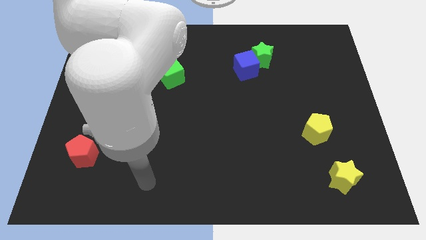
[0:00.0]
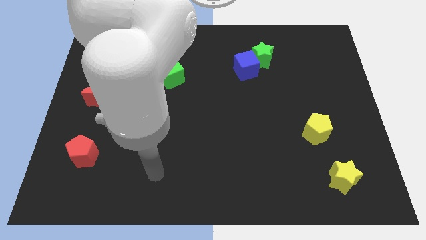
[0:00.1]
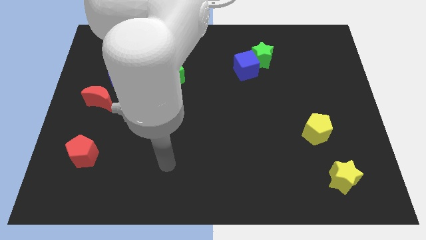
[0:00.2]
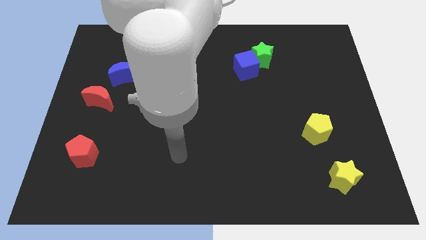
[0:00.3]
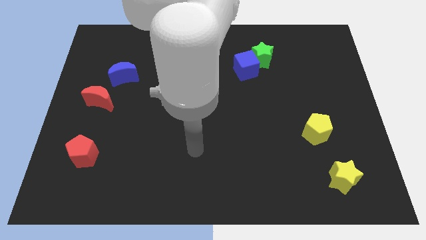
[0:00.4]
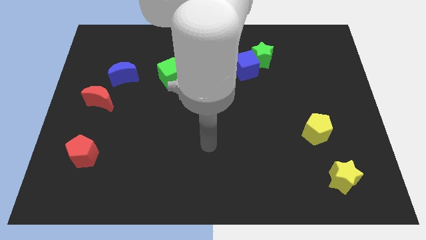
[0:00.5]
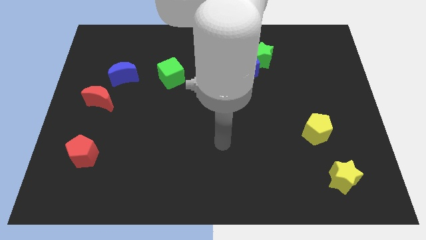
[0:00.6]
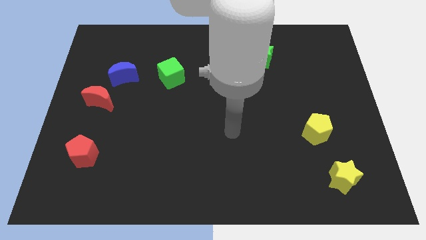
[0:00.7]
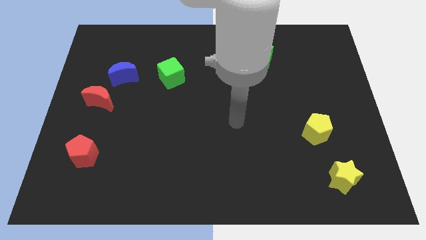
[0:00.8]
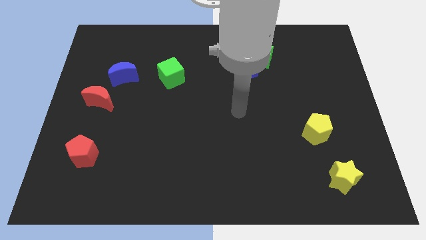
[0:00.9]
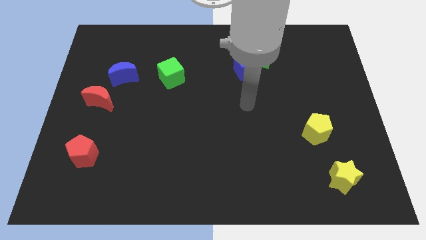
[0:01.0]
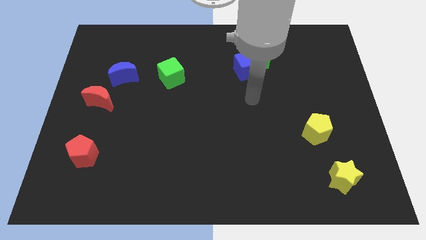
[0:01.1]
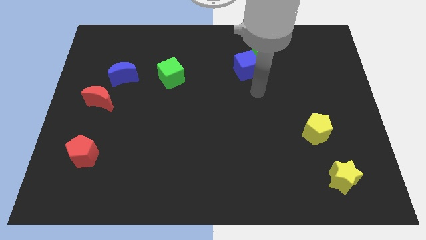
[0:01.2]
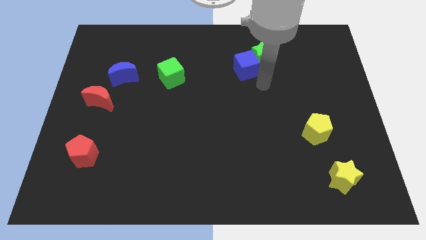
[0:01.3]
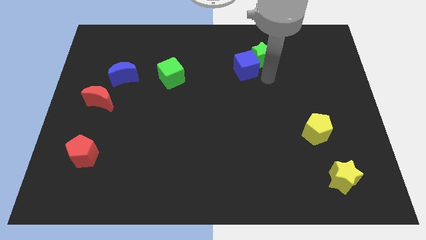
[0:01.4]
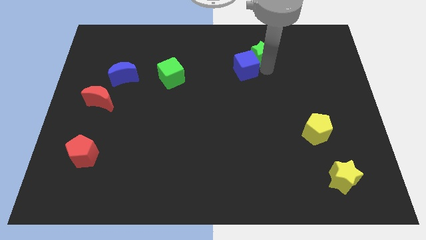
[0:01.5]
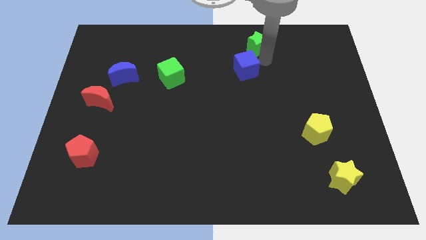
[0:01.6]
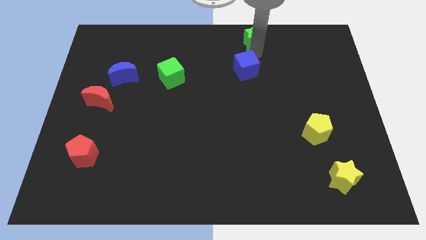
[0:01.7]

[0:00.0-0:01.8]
separate the blue cube from the green star

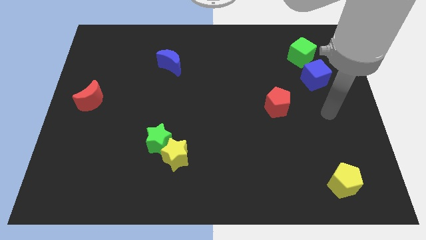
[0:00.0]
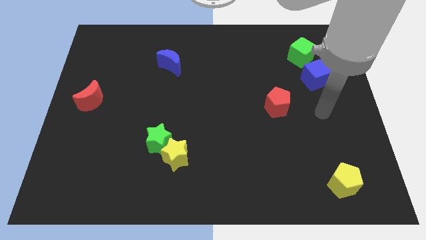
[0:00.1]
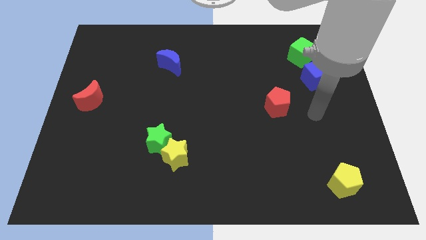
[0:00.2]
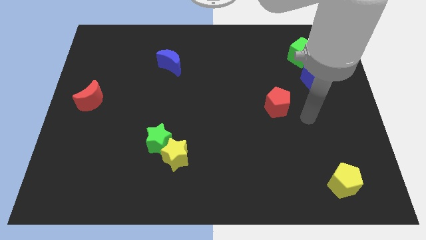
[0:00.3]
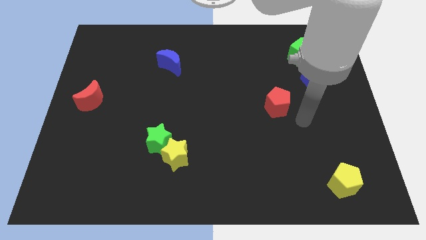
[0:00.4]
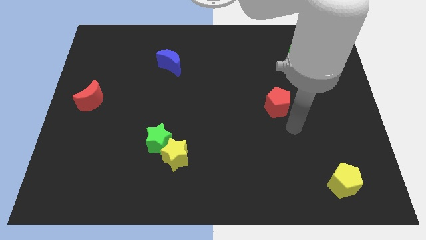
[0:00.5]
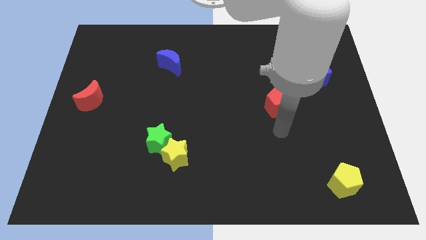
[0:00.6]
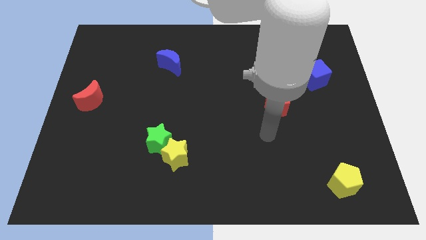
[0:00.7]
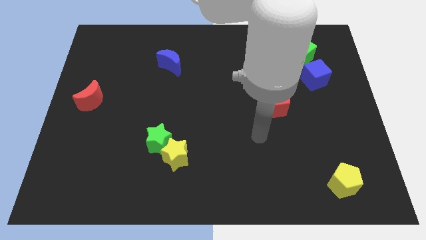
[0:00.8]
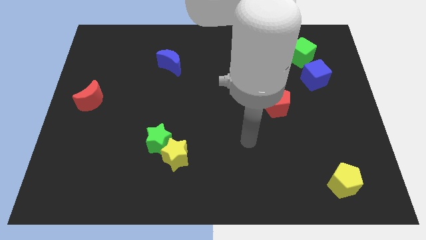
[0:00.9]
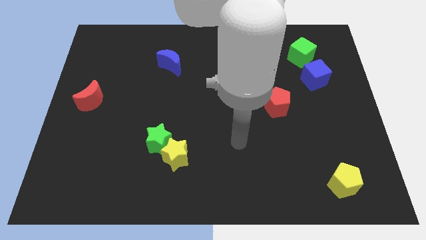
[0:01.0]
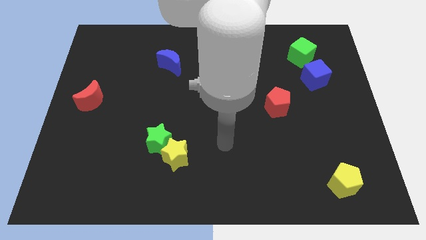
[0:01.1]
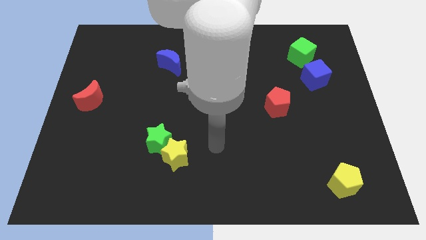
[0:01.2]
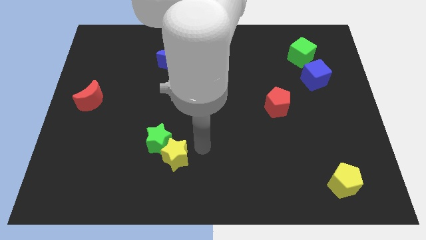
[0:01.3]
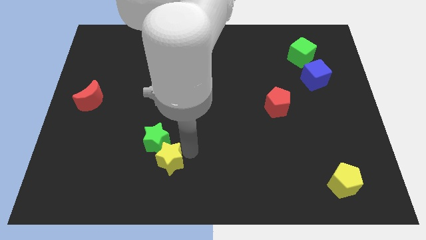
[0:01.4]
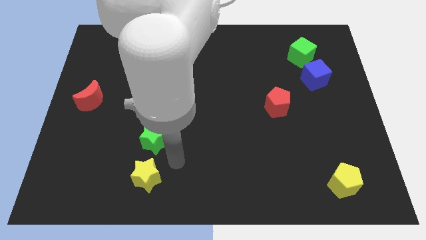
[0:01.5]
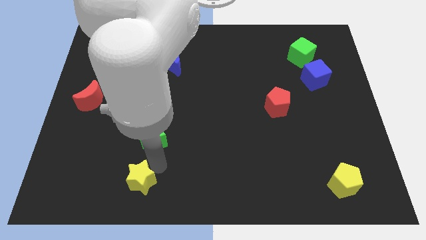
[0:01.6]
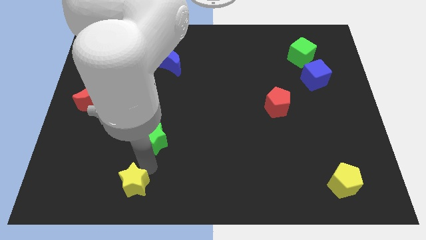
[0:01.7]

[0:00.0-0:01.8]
separate the green star from the yellow star

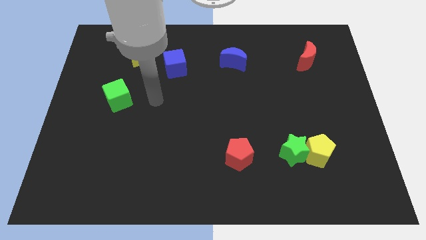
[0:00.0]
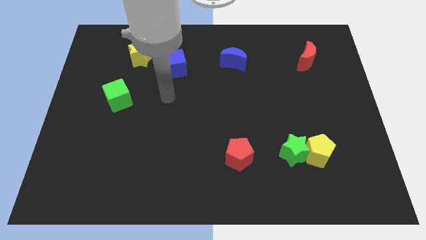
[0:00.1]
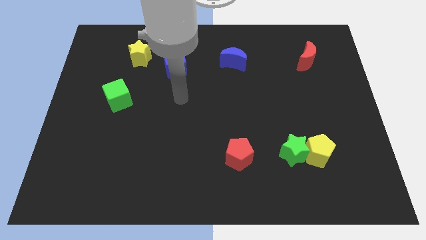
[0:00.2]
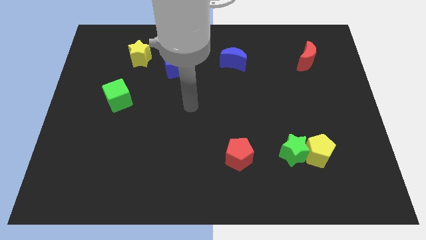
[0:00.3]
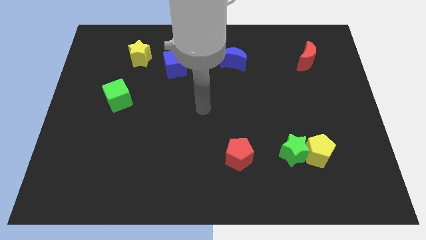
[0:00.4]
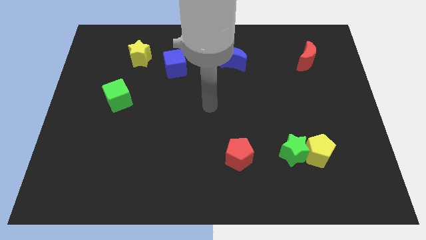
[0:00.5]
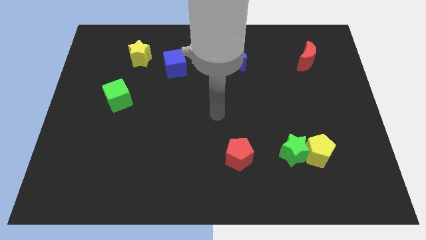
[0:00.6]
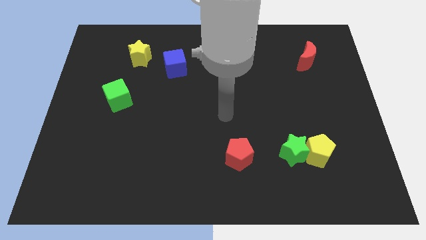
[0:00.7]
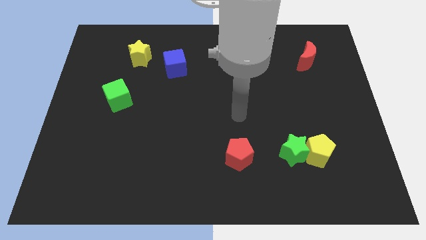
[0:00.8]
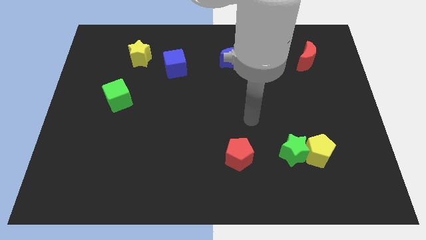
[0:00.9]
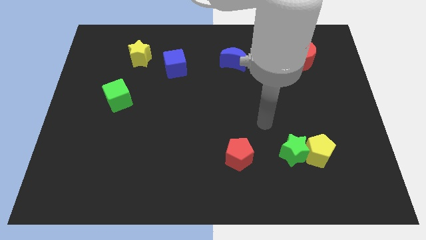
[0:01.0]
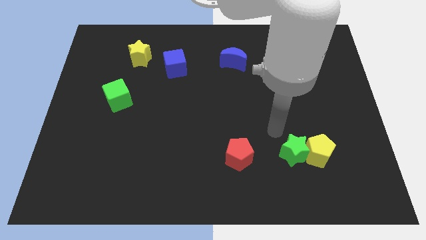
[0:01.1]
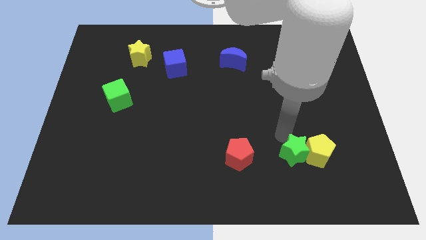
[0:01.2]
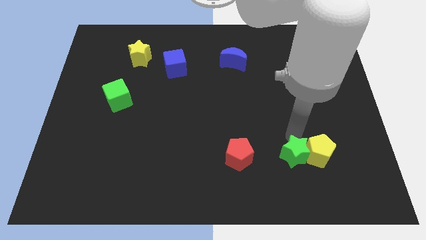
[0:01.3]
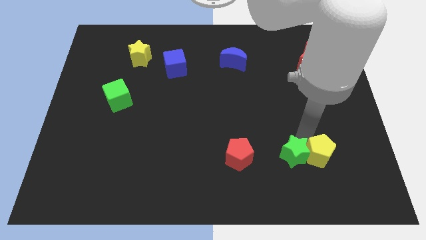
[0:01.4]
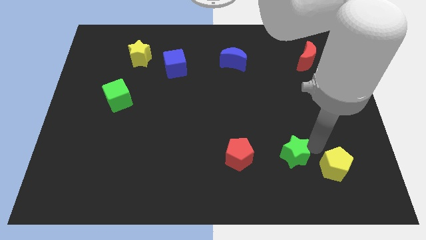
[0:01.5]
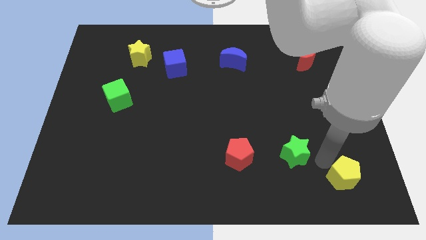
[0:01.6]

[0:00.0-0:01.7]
move the green star away from the yellow pentagon

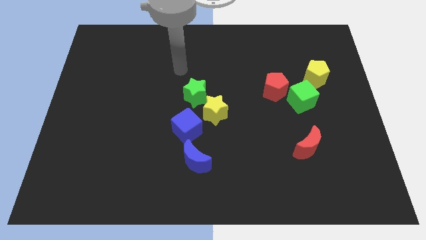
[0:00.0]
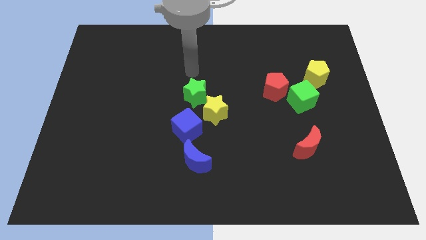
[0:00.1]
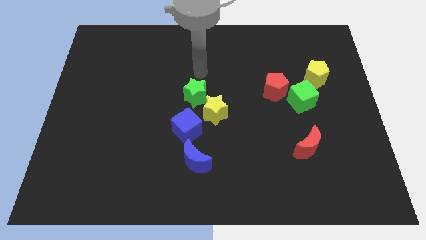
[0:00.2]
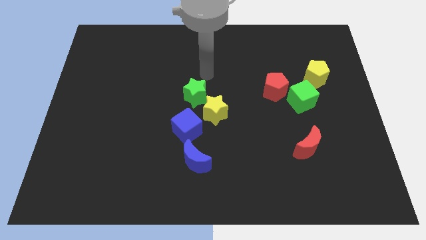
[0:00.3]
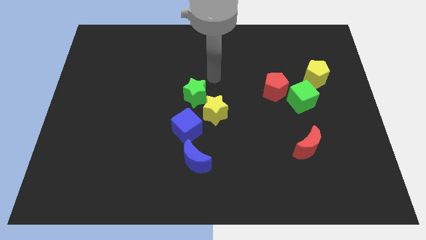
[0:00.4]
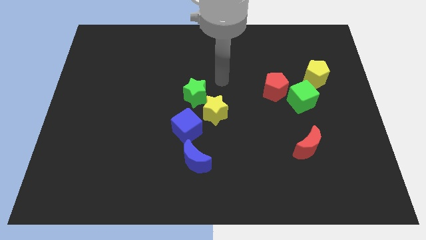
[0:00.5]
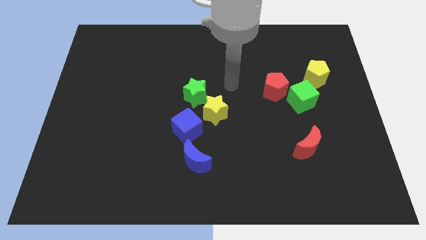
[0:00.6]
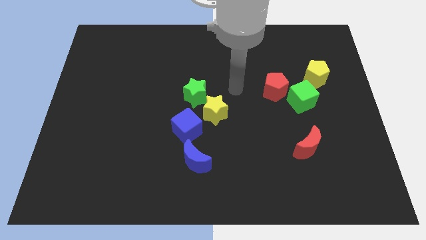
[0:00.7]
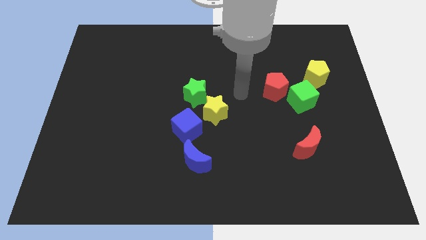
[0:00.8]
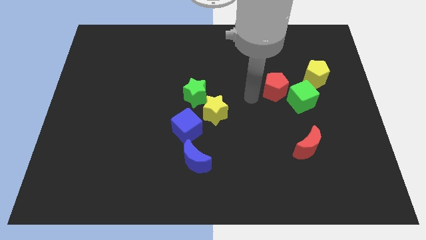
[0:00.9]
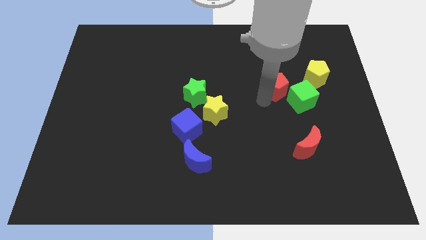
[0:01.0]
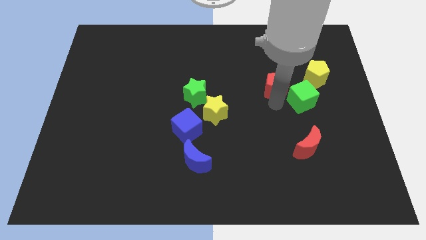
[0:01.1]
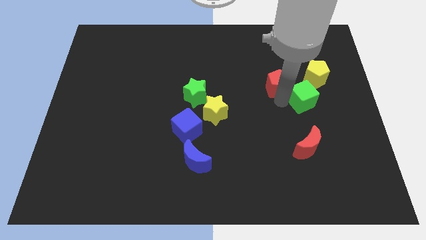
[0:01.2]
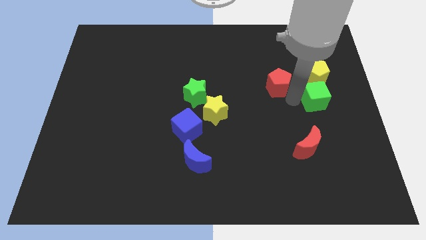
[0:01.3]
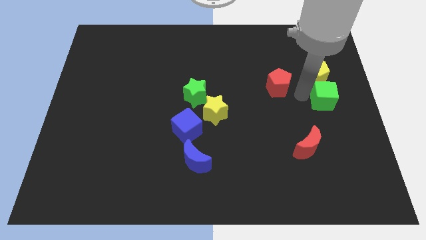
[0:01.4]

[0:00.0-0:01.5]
separate the red pentagon from the green cube

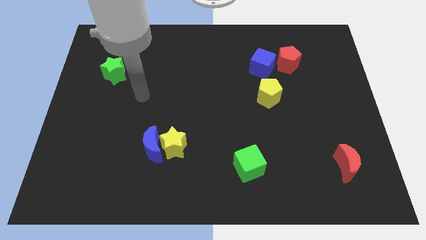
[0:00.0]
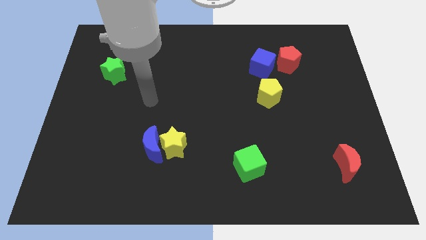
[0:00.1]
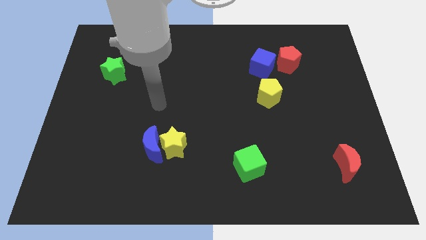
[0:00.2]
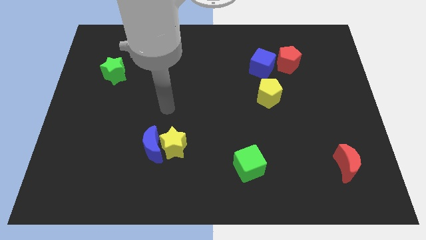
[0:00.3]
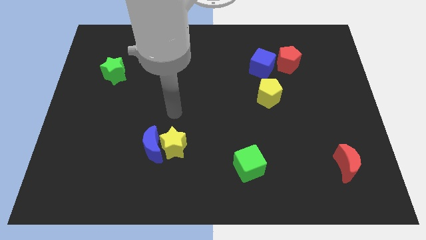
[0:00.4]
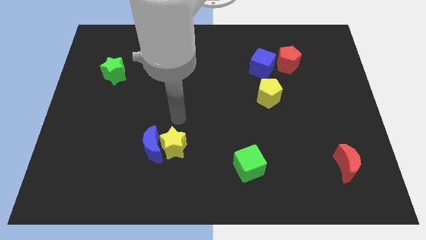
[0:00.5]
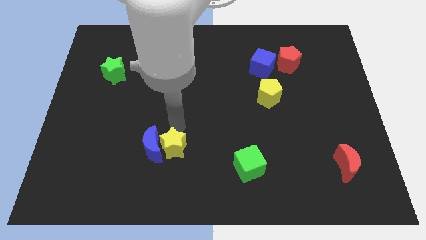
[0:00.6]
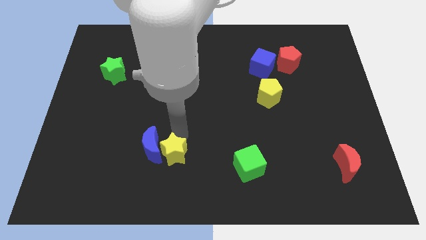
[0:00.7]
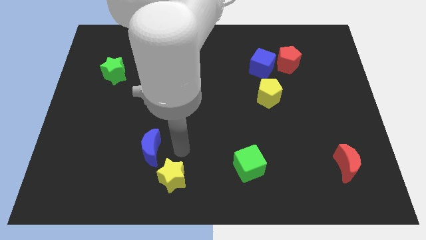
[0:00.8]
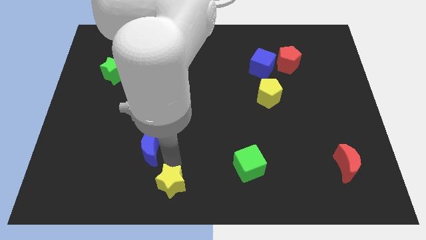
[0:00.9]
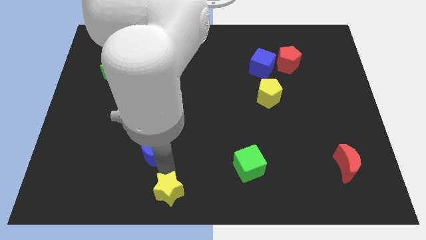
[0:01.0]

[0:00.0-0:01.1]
pull the blue moon apart from the yellow star

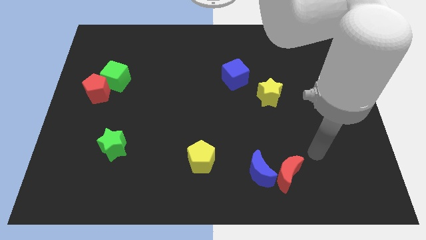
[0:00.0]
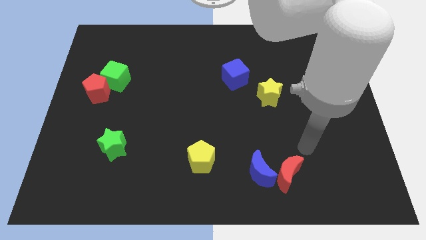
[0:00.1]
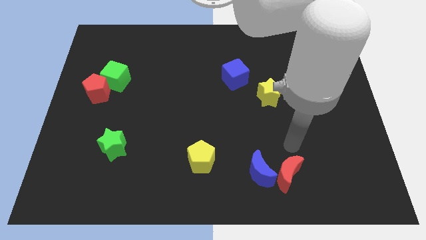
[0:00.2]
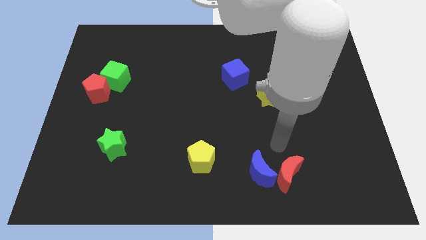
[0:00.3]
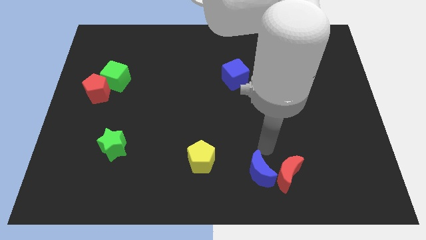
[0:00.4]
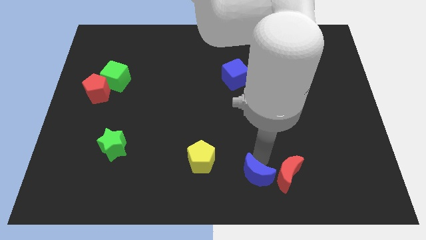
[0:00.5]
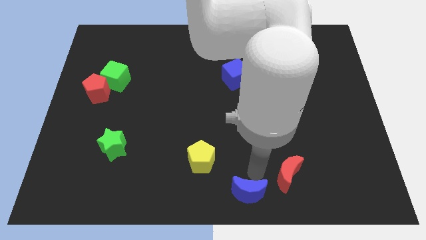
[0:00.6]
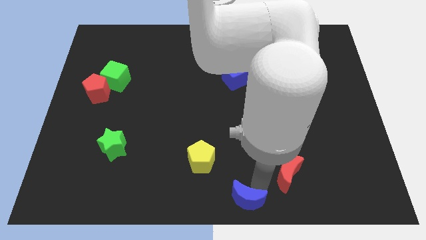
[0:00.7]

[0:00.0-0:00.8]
pull the red moon apart from the blue moon

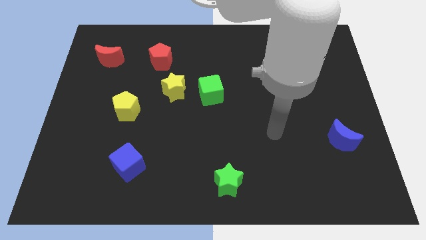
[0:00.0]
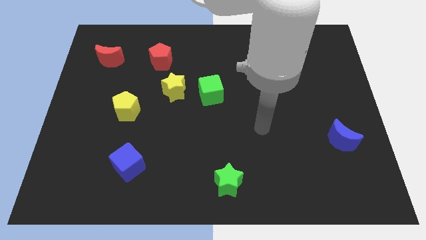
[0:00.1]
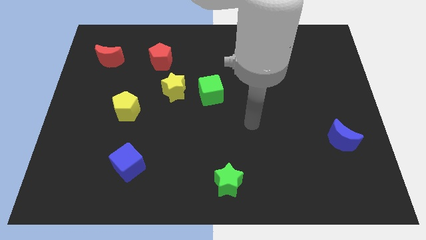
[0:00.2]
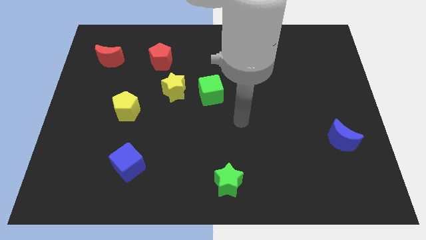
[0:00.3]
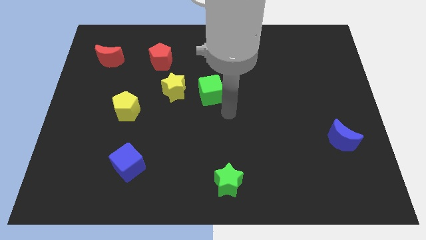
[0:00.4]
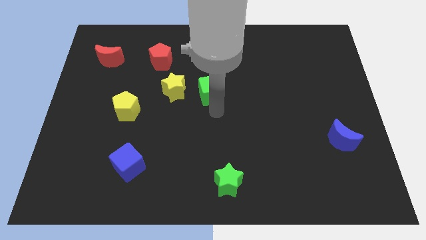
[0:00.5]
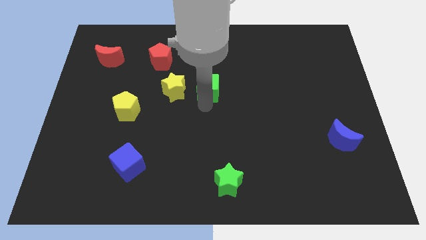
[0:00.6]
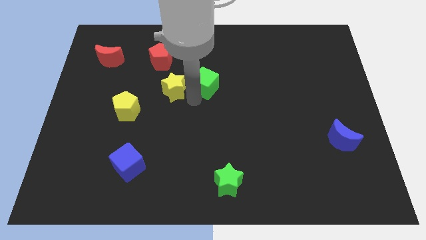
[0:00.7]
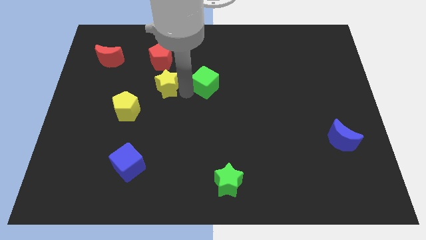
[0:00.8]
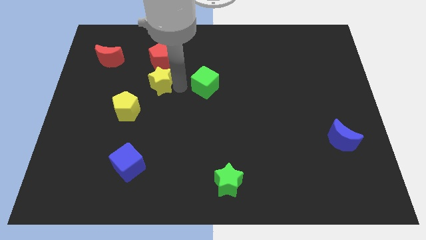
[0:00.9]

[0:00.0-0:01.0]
separate the green cube from the yellow star
